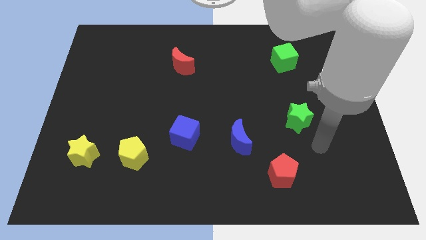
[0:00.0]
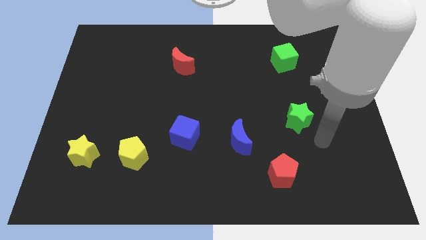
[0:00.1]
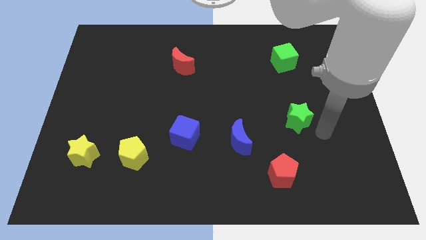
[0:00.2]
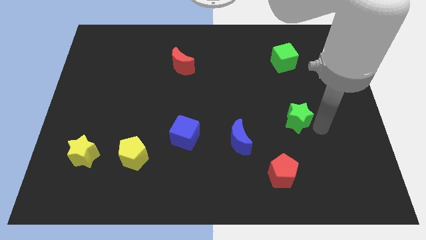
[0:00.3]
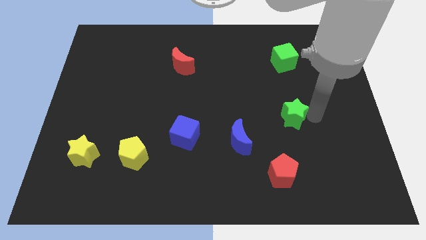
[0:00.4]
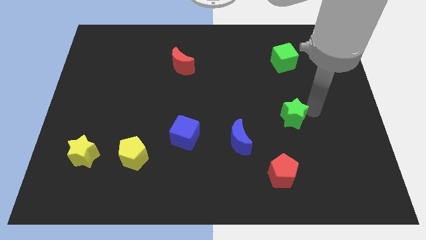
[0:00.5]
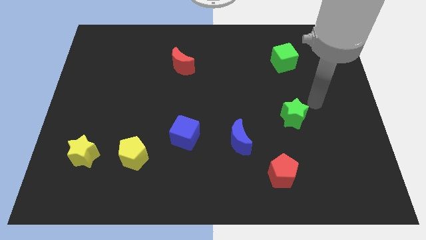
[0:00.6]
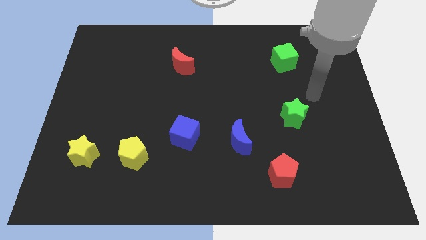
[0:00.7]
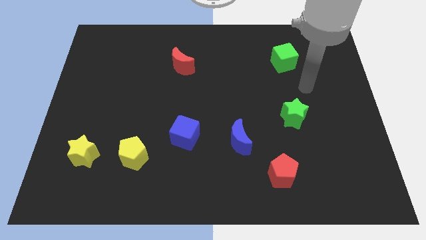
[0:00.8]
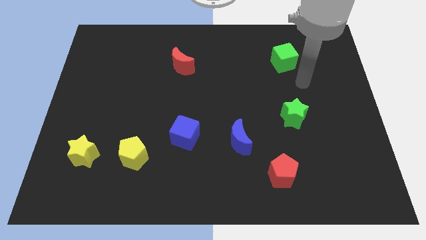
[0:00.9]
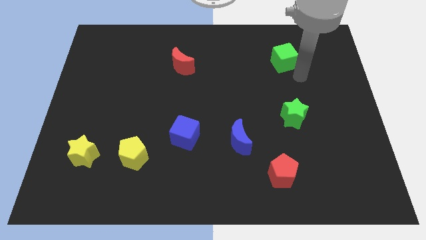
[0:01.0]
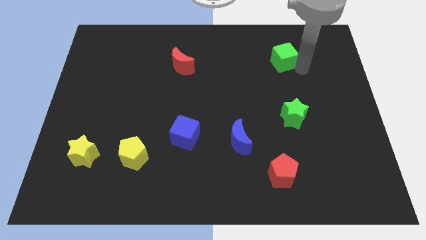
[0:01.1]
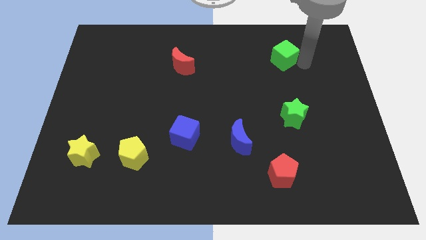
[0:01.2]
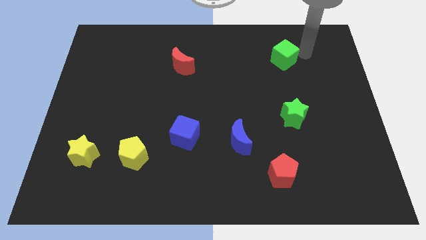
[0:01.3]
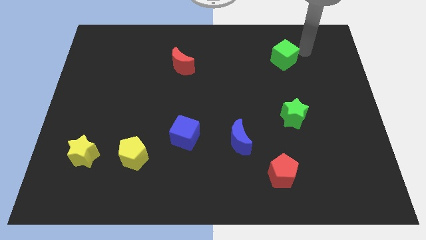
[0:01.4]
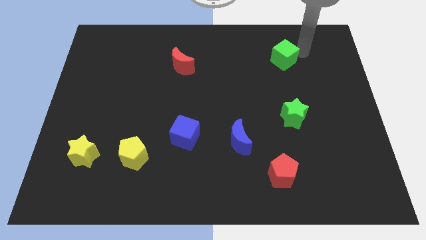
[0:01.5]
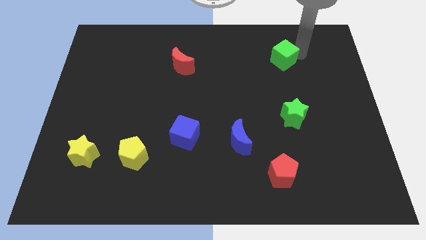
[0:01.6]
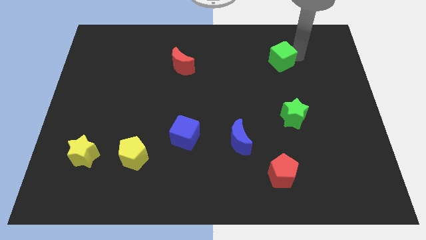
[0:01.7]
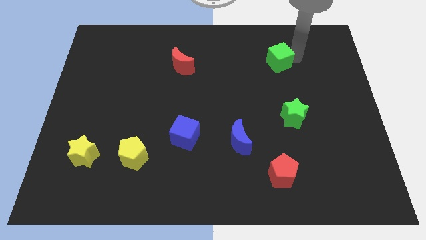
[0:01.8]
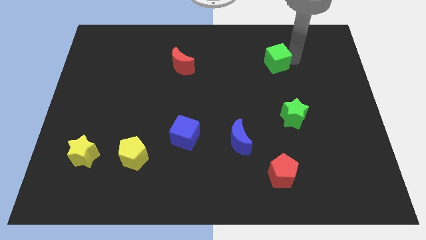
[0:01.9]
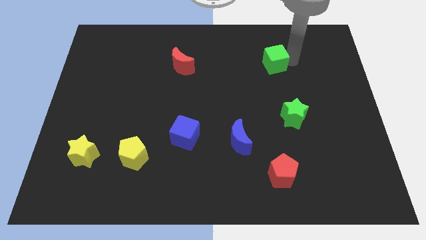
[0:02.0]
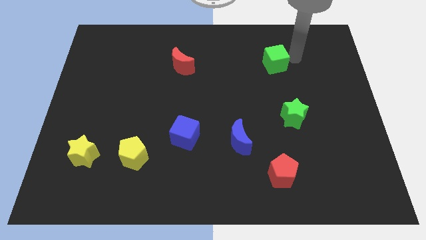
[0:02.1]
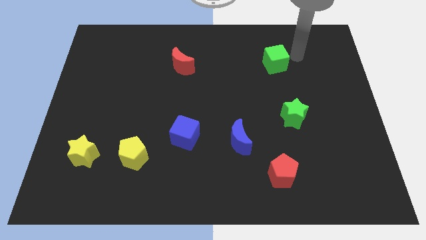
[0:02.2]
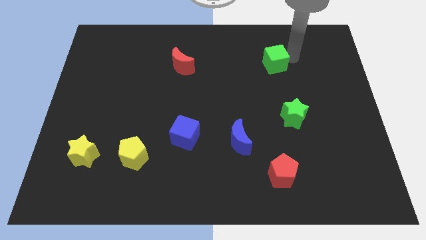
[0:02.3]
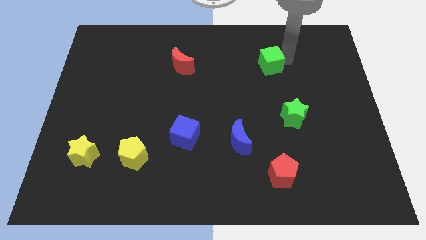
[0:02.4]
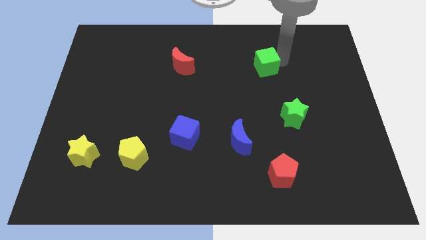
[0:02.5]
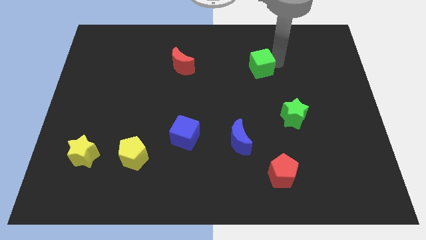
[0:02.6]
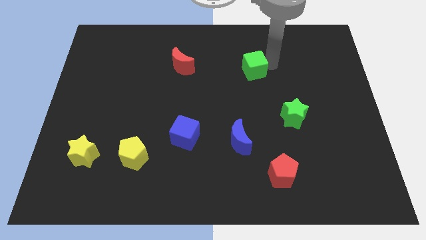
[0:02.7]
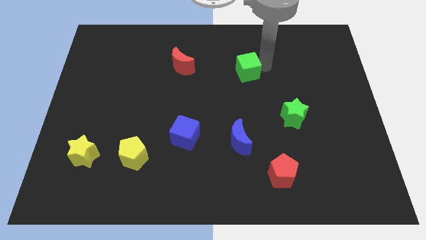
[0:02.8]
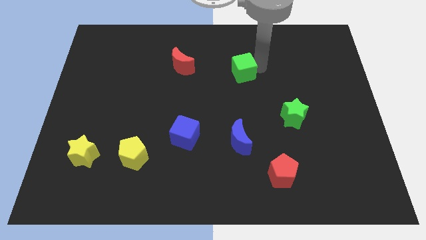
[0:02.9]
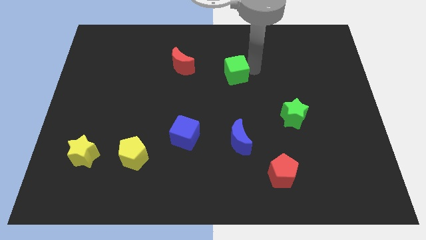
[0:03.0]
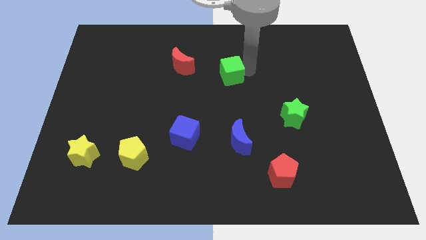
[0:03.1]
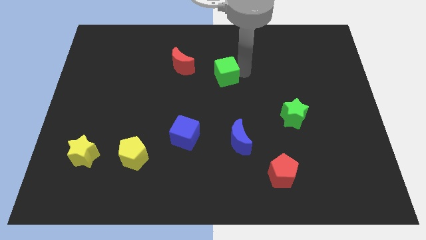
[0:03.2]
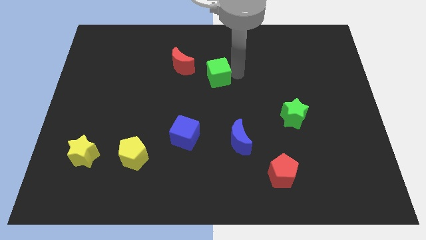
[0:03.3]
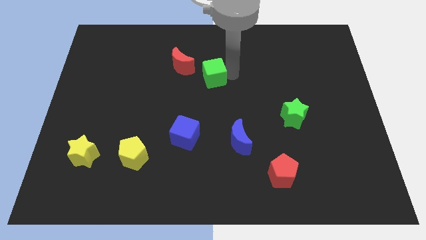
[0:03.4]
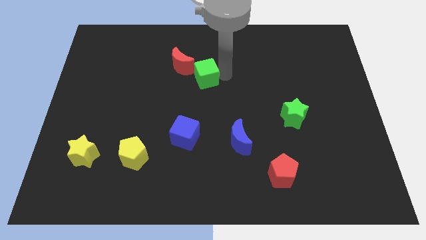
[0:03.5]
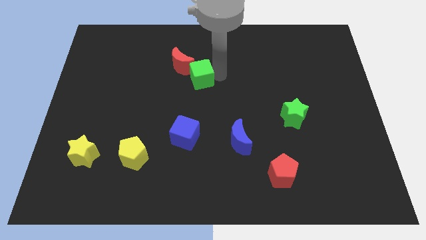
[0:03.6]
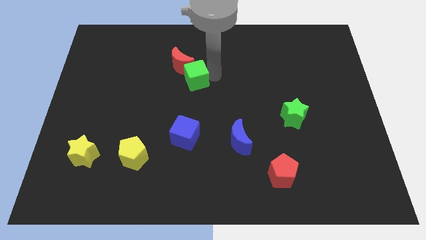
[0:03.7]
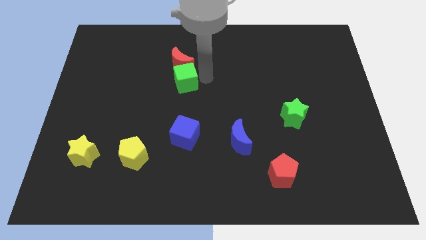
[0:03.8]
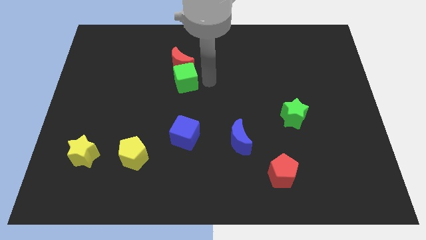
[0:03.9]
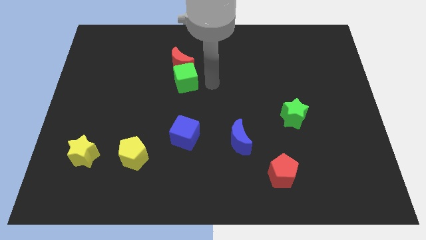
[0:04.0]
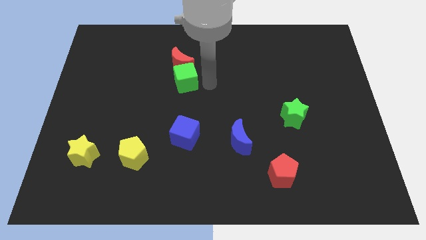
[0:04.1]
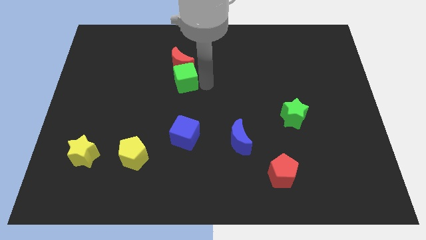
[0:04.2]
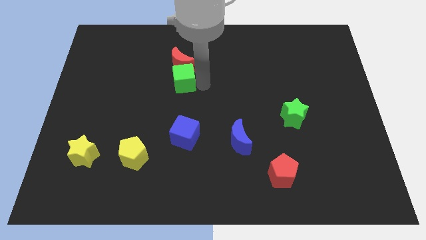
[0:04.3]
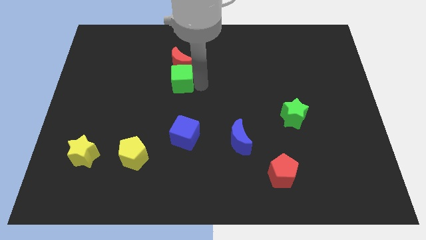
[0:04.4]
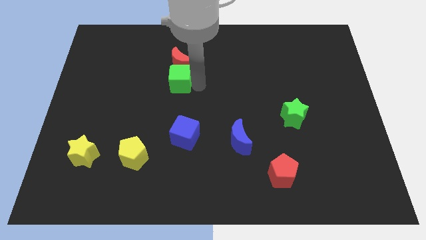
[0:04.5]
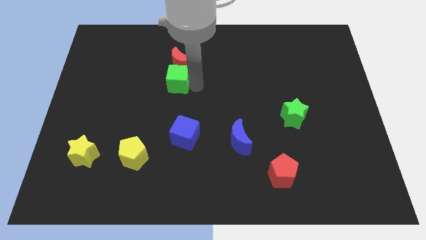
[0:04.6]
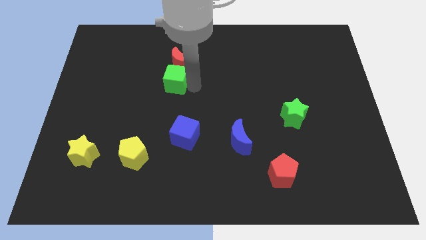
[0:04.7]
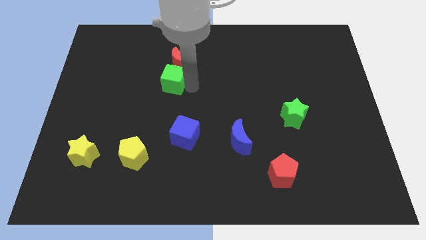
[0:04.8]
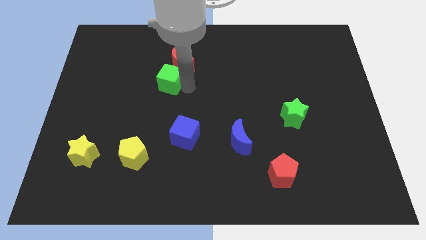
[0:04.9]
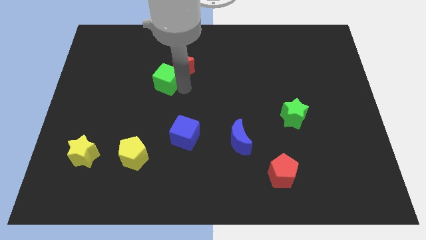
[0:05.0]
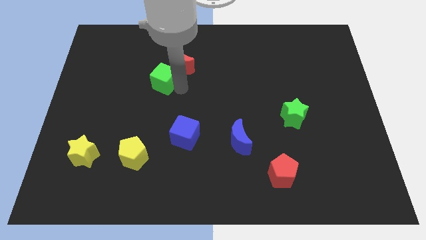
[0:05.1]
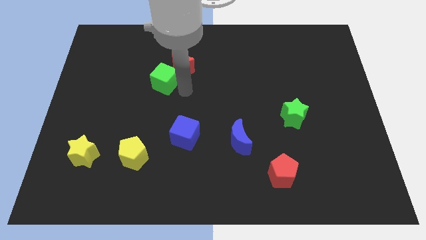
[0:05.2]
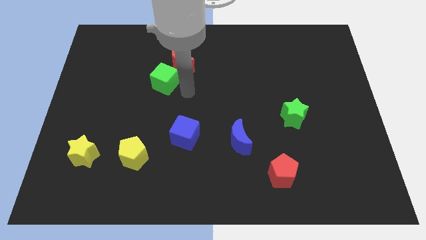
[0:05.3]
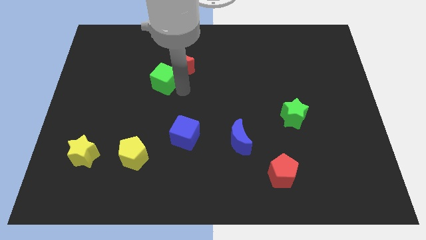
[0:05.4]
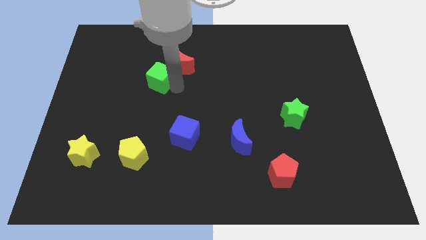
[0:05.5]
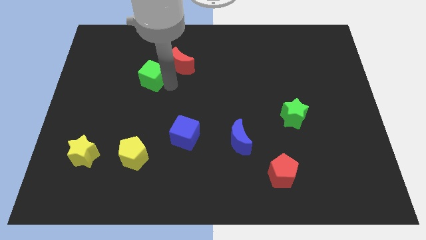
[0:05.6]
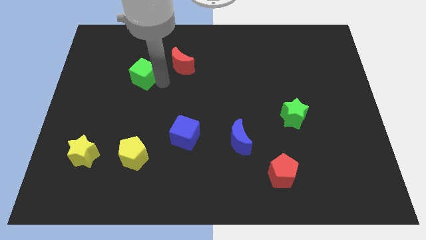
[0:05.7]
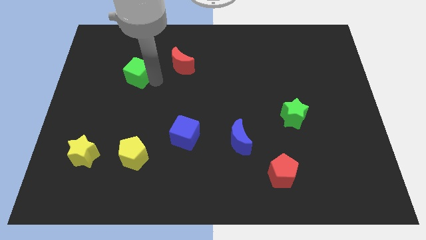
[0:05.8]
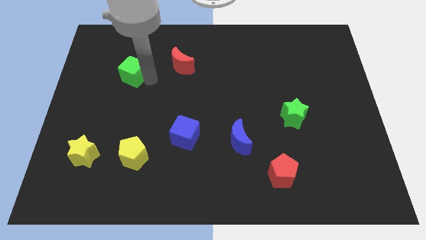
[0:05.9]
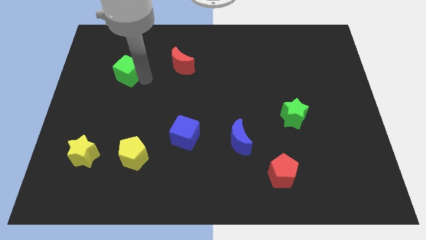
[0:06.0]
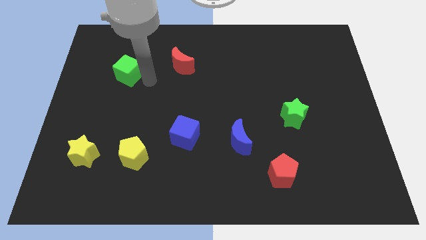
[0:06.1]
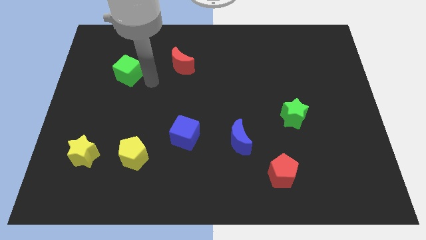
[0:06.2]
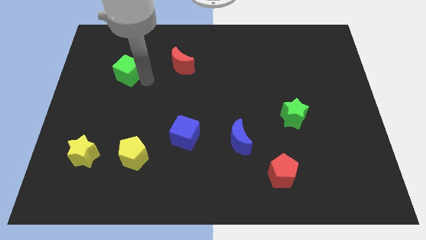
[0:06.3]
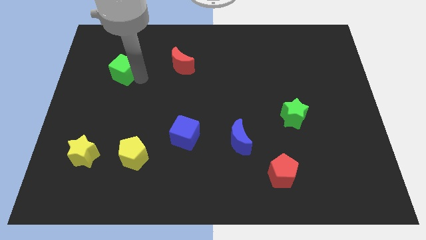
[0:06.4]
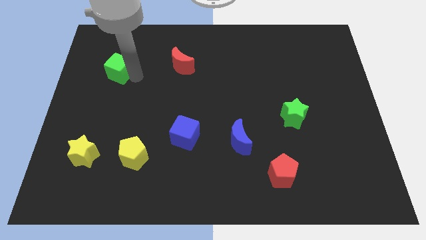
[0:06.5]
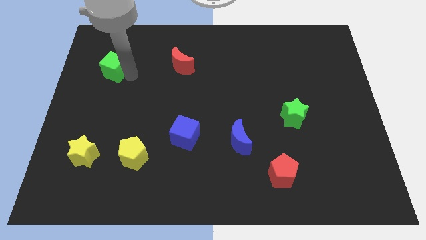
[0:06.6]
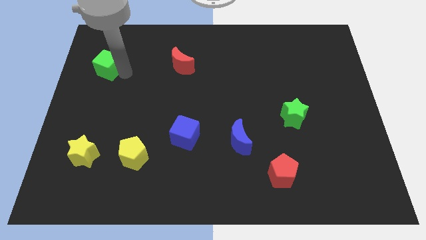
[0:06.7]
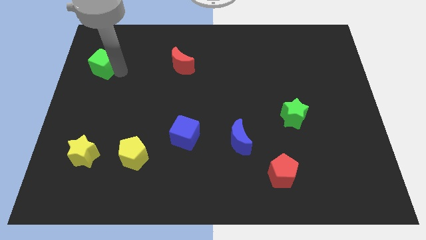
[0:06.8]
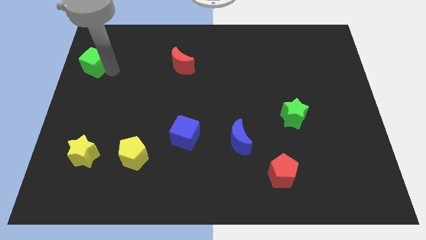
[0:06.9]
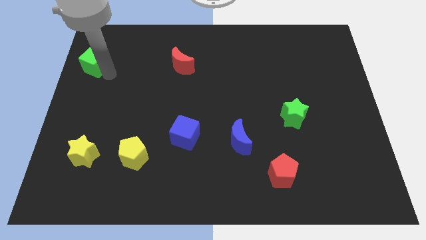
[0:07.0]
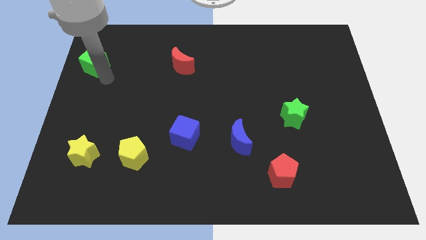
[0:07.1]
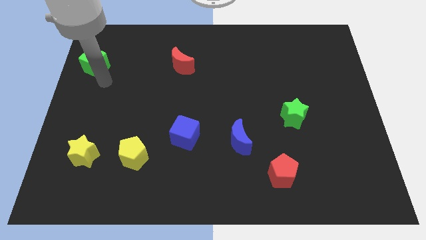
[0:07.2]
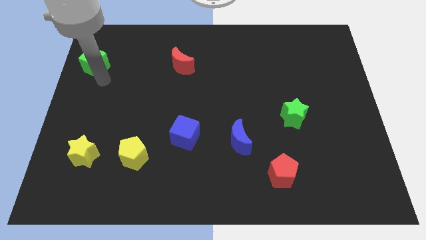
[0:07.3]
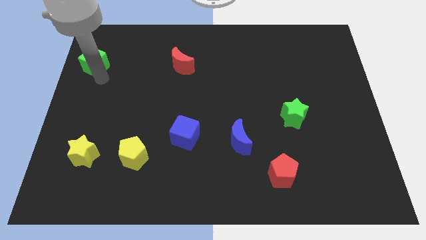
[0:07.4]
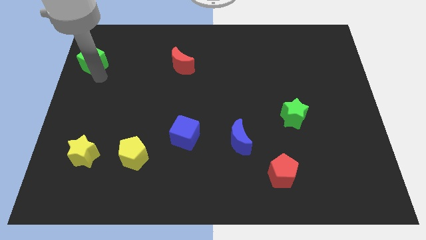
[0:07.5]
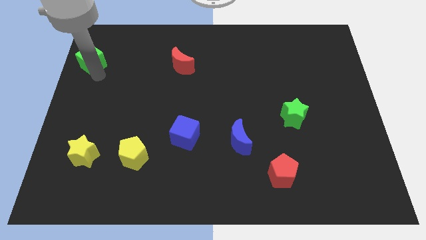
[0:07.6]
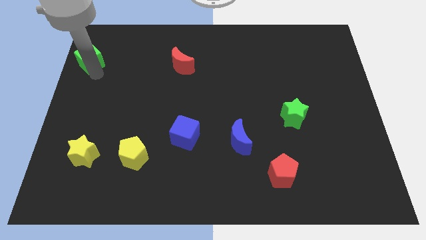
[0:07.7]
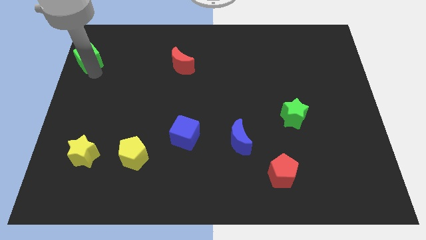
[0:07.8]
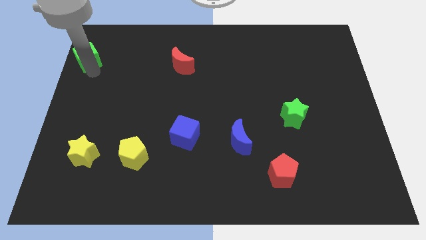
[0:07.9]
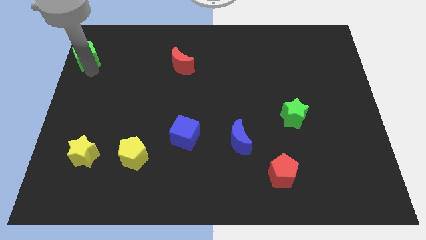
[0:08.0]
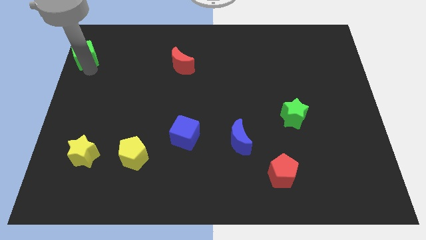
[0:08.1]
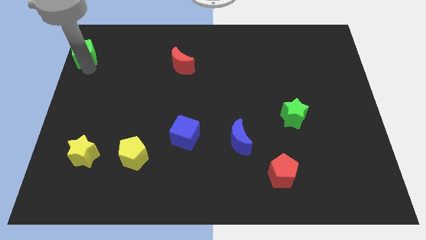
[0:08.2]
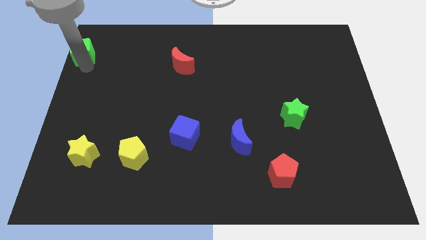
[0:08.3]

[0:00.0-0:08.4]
put the green cube to the top left corner
